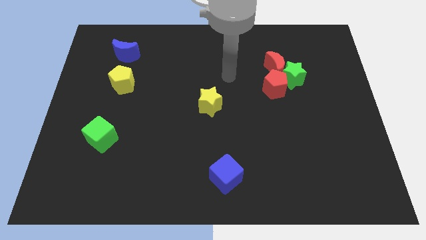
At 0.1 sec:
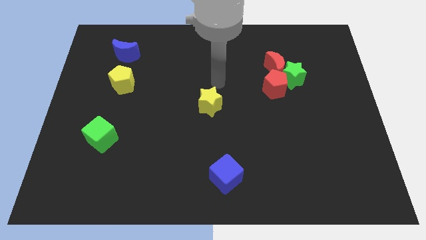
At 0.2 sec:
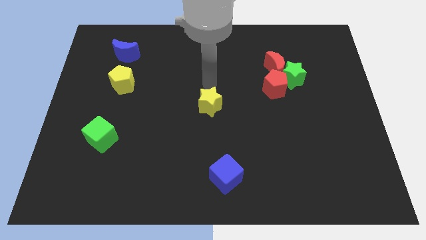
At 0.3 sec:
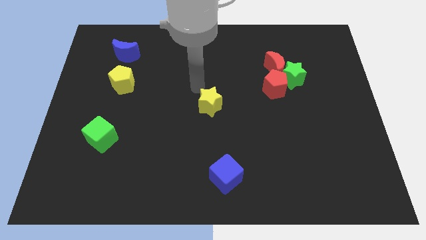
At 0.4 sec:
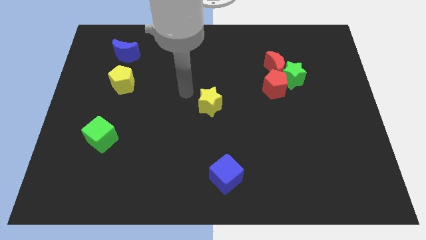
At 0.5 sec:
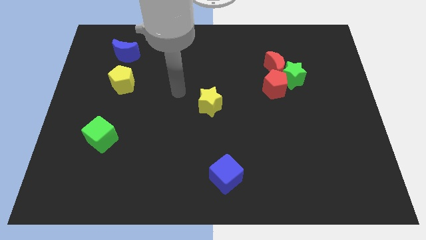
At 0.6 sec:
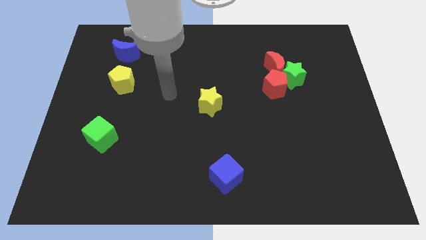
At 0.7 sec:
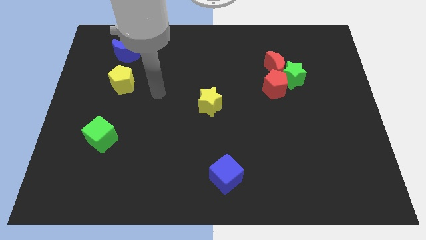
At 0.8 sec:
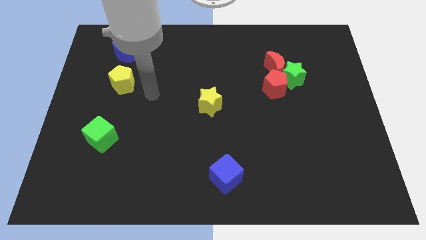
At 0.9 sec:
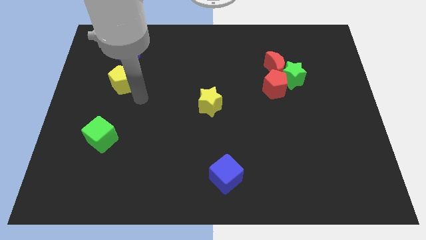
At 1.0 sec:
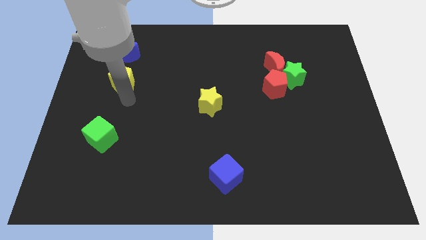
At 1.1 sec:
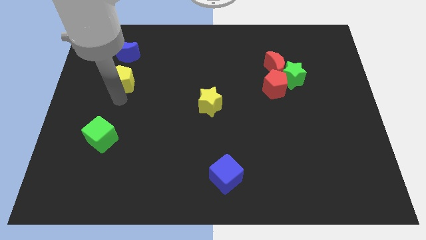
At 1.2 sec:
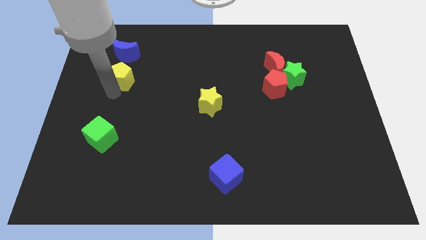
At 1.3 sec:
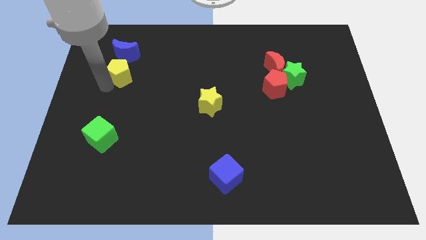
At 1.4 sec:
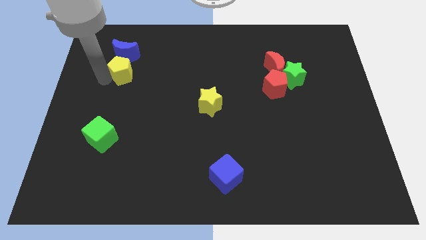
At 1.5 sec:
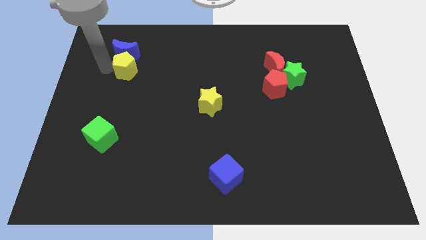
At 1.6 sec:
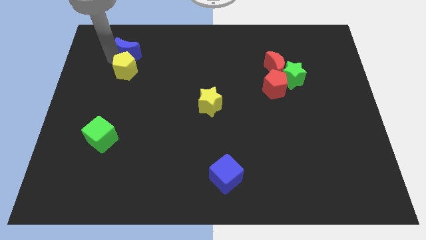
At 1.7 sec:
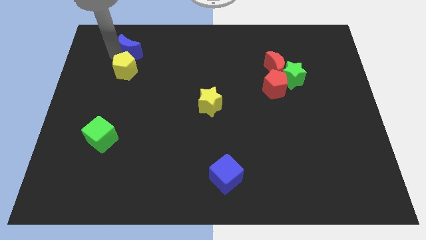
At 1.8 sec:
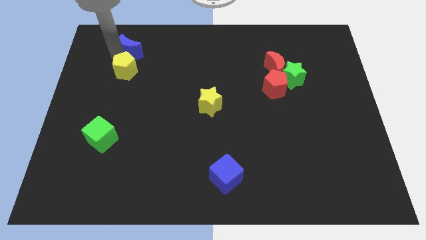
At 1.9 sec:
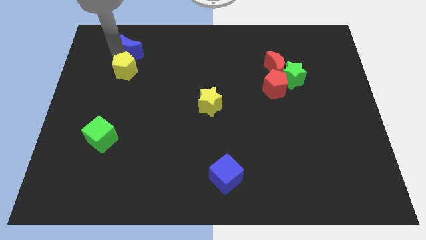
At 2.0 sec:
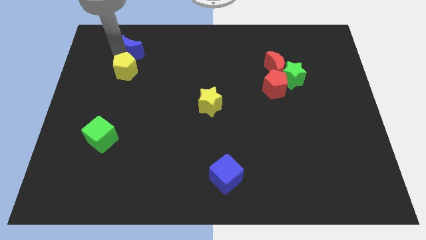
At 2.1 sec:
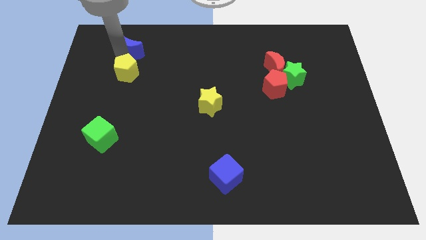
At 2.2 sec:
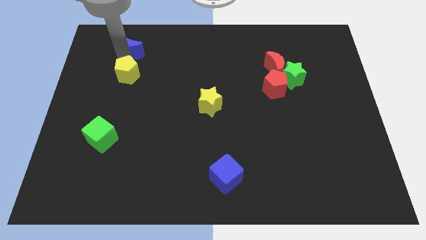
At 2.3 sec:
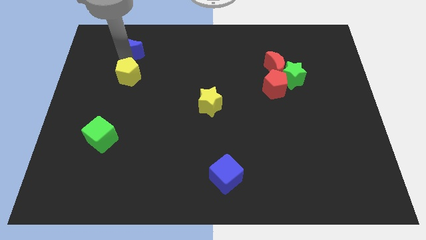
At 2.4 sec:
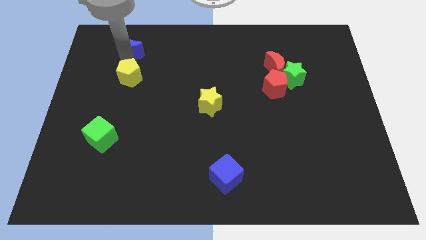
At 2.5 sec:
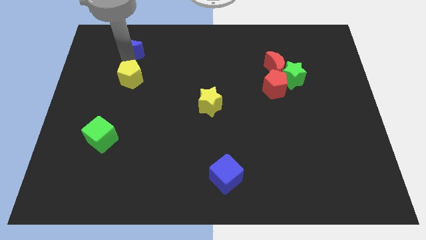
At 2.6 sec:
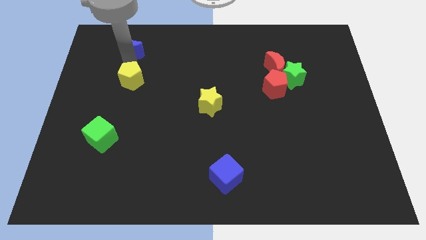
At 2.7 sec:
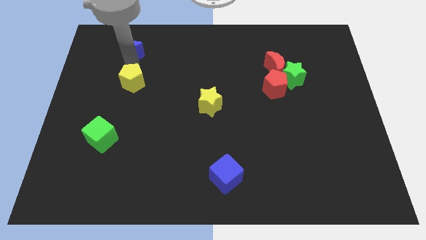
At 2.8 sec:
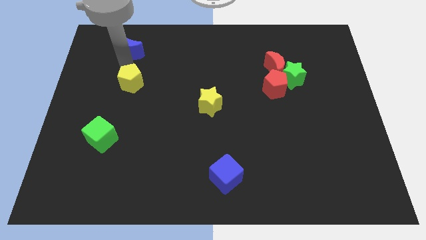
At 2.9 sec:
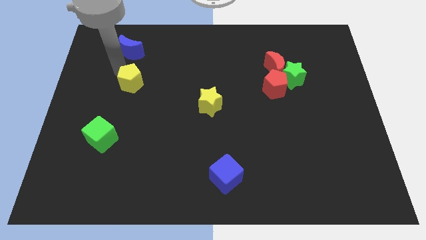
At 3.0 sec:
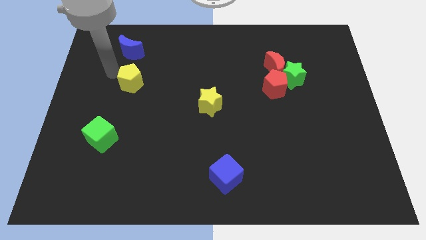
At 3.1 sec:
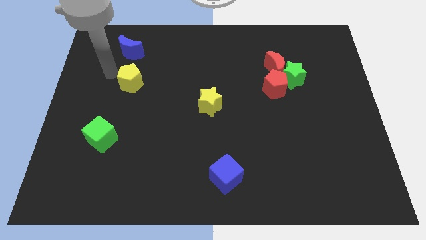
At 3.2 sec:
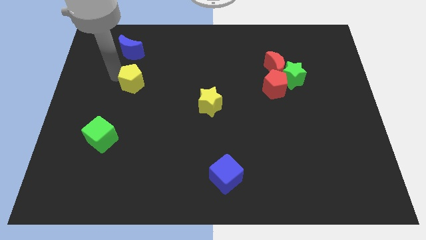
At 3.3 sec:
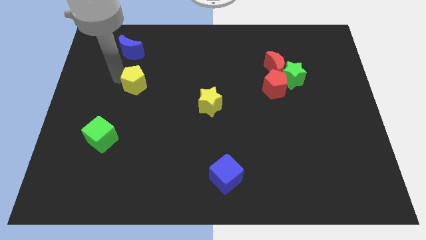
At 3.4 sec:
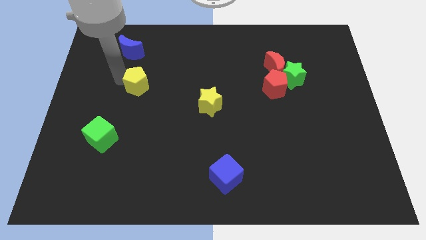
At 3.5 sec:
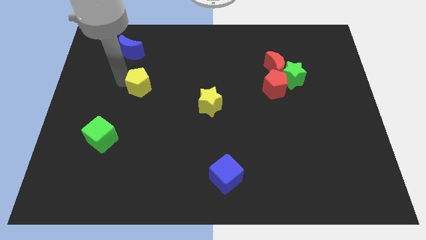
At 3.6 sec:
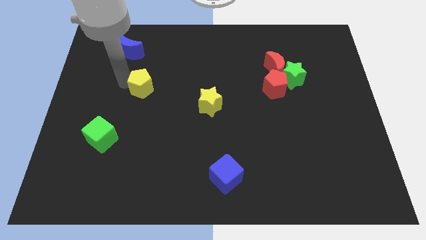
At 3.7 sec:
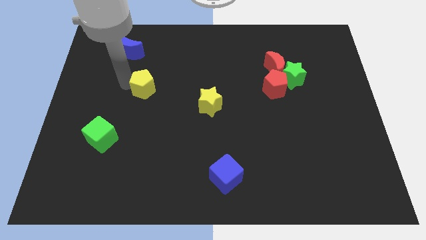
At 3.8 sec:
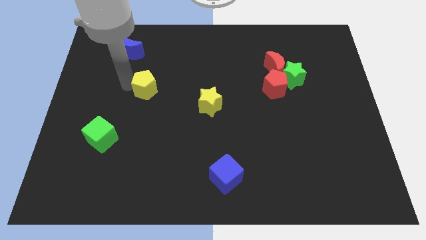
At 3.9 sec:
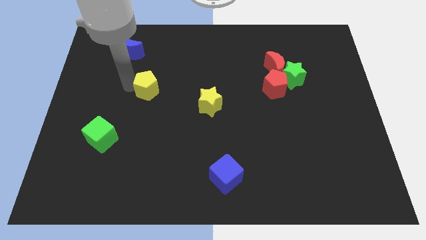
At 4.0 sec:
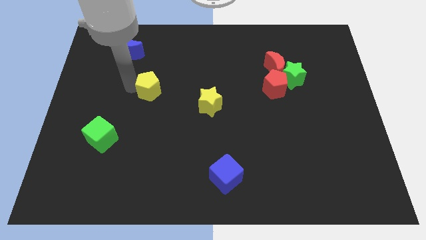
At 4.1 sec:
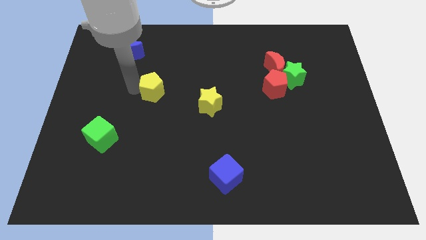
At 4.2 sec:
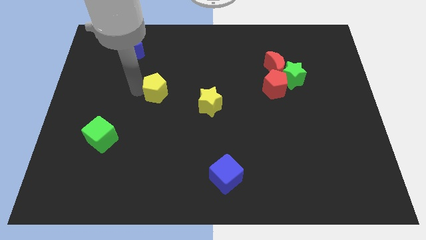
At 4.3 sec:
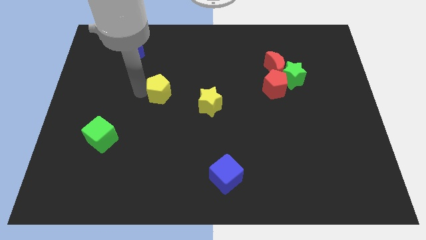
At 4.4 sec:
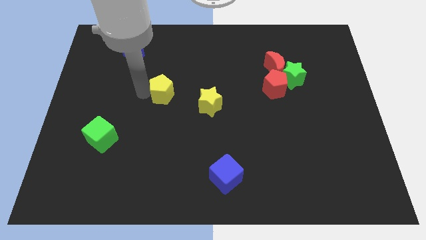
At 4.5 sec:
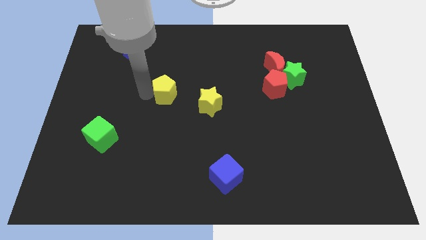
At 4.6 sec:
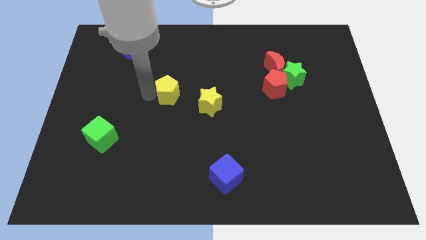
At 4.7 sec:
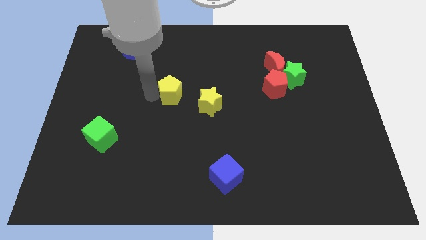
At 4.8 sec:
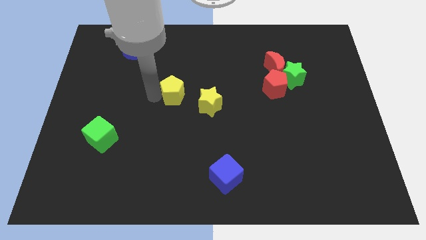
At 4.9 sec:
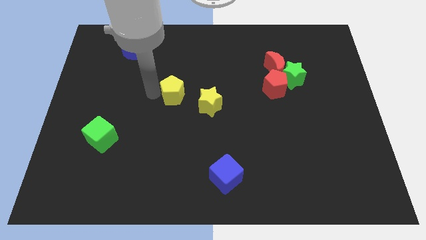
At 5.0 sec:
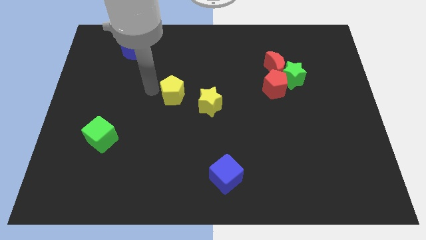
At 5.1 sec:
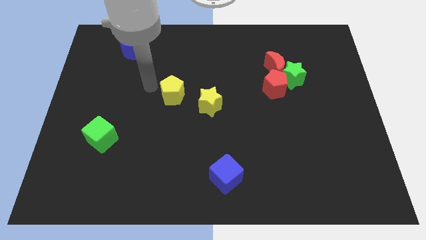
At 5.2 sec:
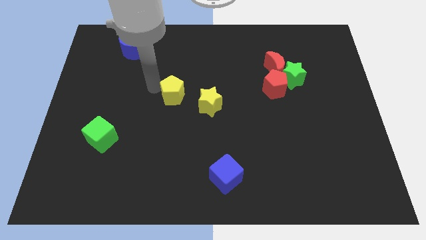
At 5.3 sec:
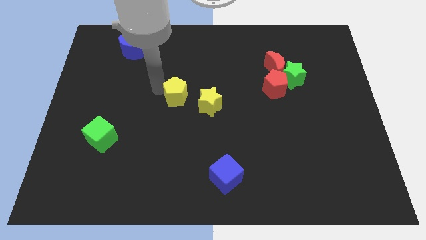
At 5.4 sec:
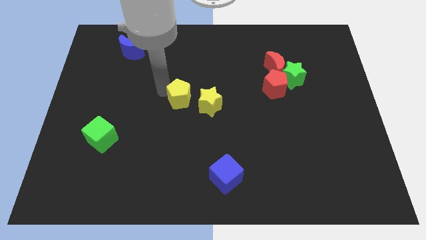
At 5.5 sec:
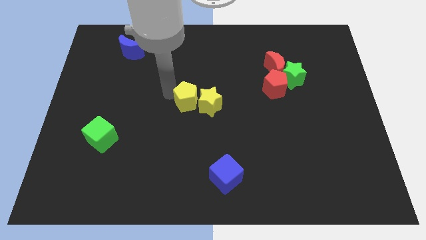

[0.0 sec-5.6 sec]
slide the yellow pentagon to the yellow star

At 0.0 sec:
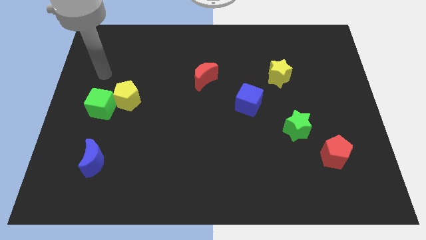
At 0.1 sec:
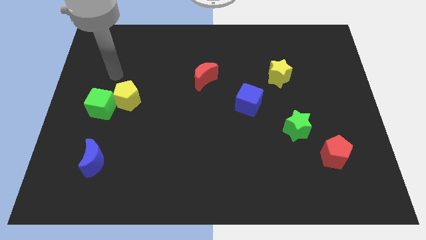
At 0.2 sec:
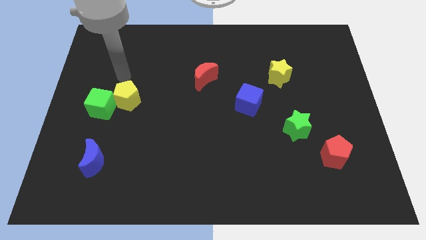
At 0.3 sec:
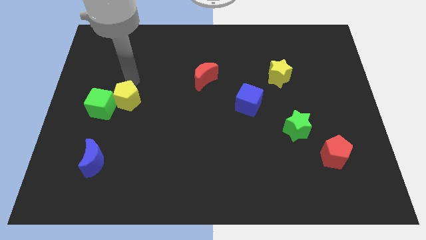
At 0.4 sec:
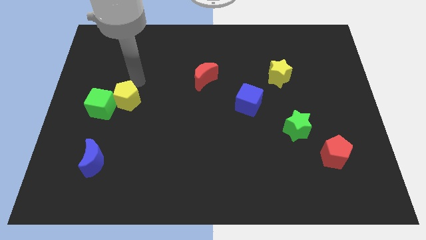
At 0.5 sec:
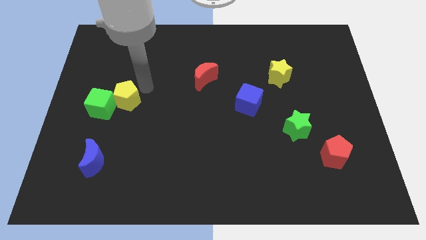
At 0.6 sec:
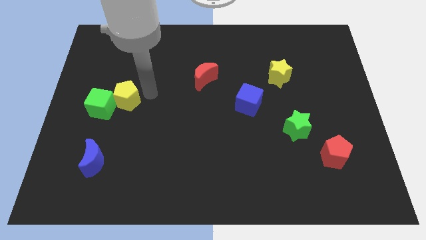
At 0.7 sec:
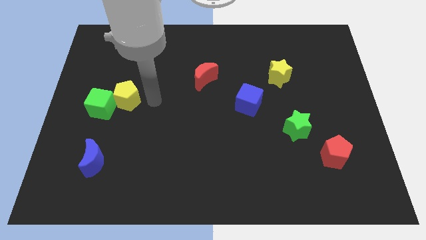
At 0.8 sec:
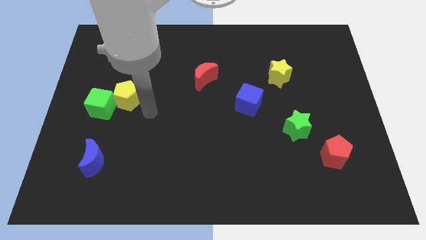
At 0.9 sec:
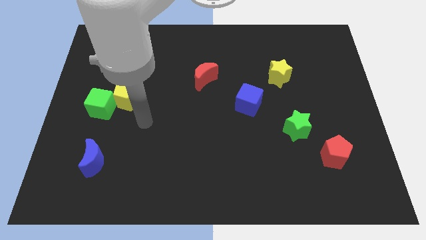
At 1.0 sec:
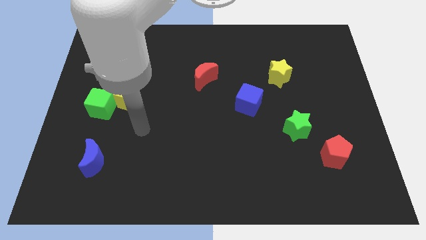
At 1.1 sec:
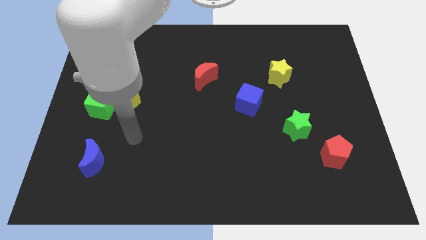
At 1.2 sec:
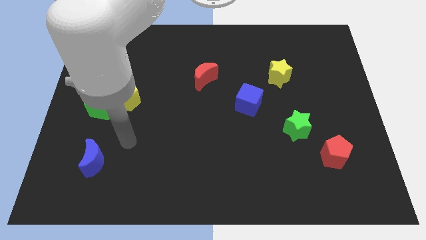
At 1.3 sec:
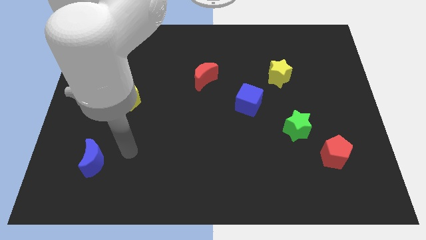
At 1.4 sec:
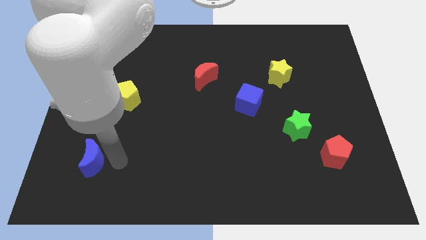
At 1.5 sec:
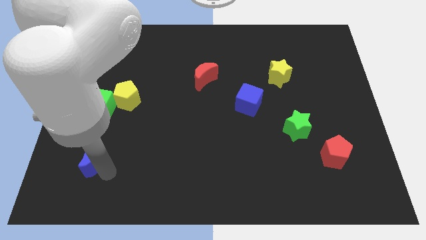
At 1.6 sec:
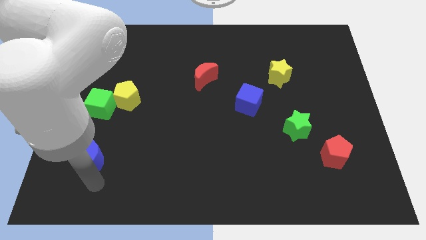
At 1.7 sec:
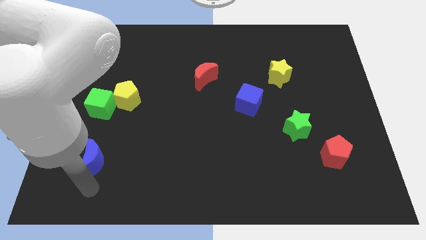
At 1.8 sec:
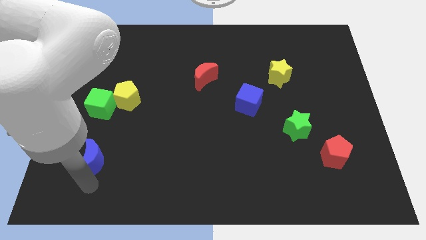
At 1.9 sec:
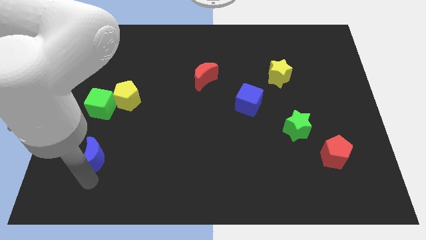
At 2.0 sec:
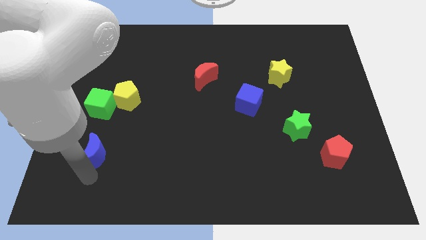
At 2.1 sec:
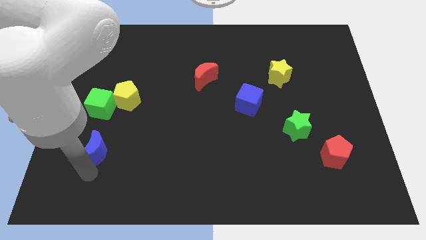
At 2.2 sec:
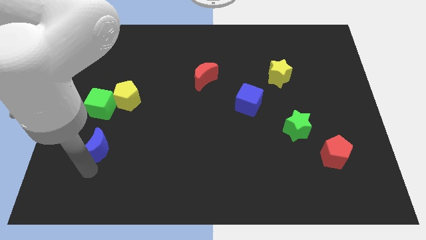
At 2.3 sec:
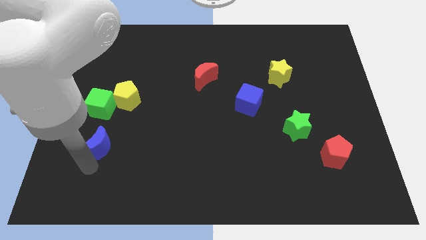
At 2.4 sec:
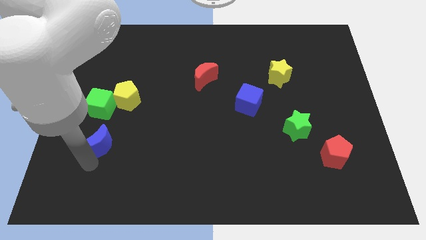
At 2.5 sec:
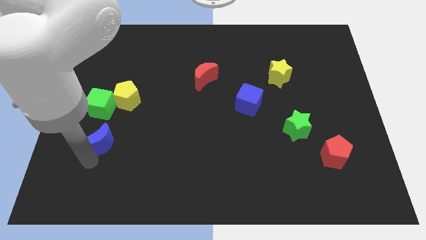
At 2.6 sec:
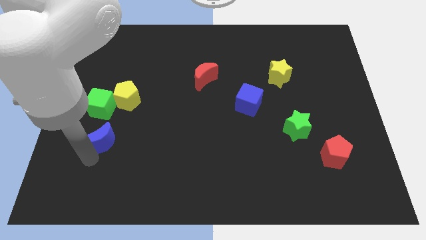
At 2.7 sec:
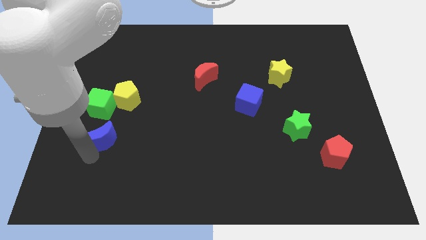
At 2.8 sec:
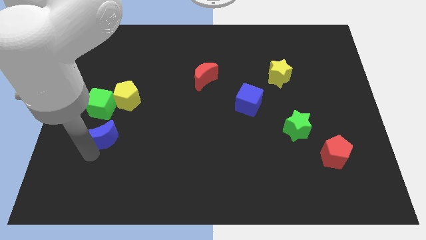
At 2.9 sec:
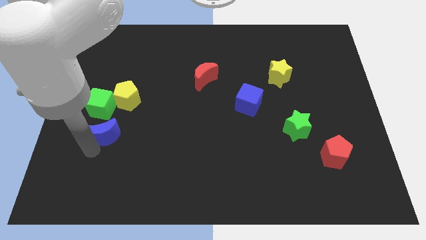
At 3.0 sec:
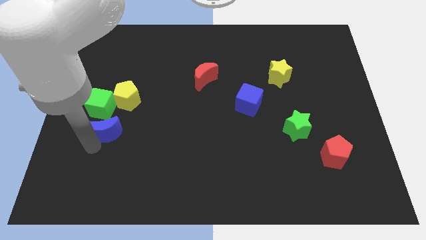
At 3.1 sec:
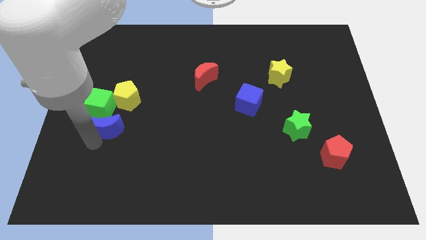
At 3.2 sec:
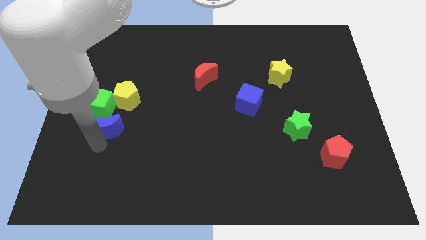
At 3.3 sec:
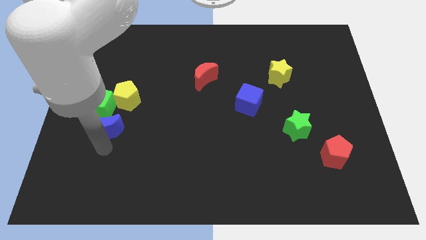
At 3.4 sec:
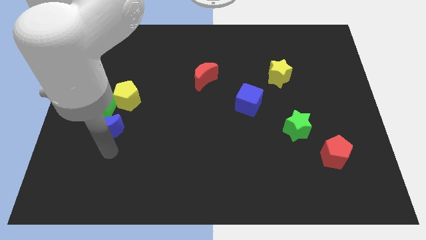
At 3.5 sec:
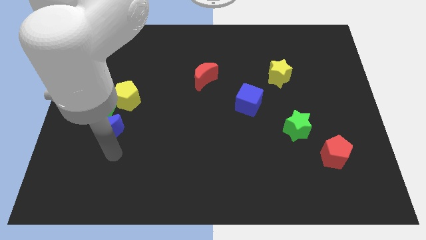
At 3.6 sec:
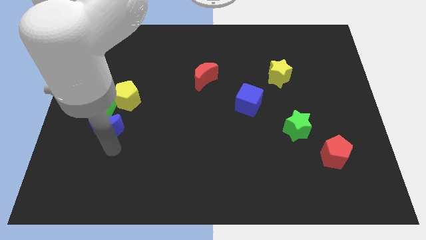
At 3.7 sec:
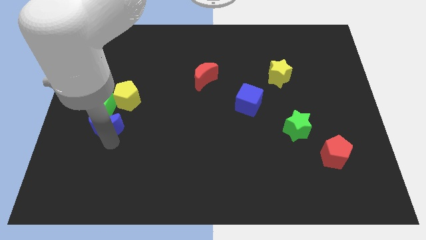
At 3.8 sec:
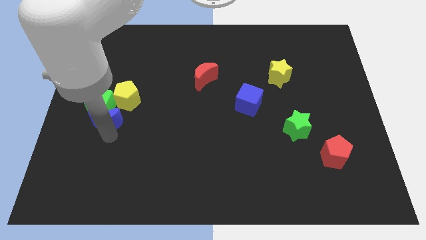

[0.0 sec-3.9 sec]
push the blue moon towards the green cube
